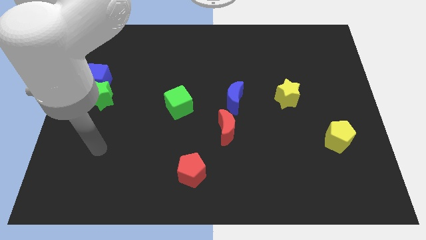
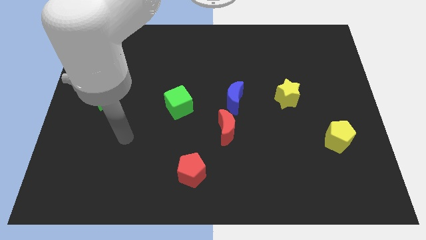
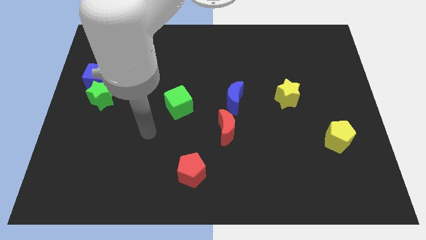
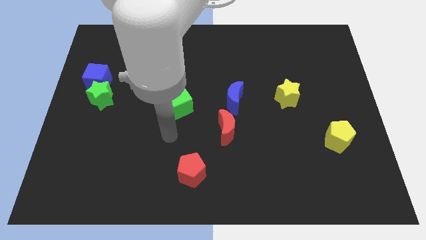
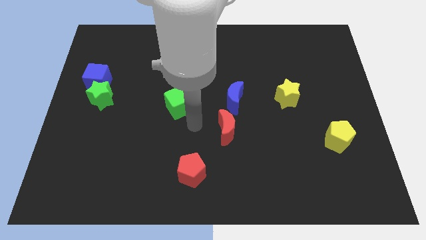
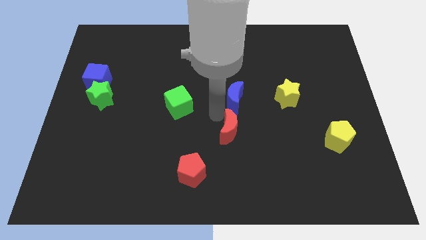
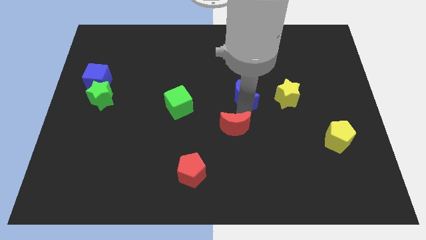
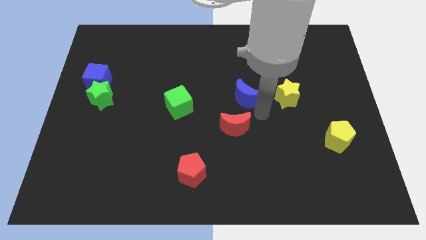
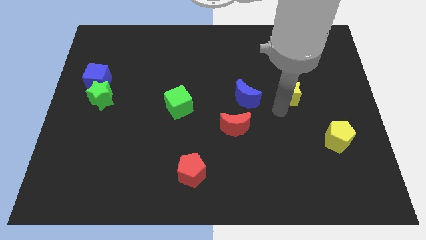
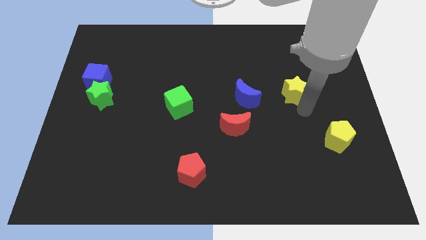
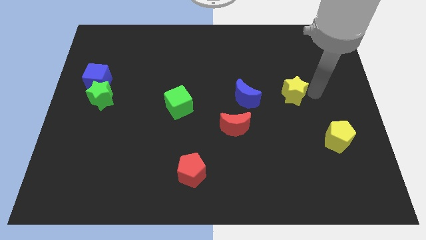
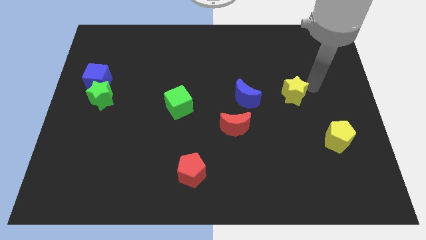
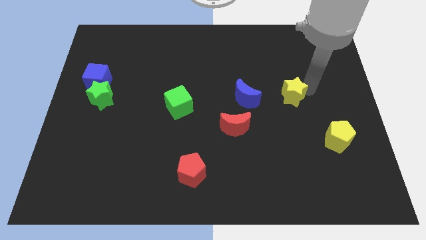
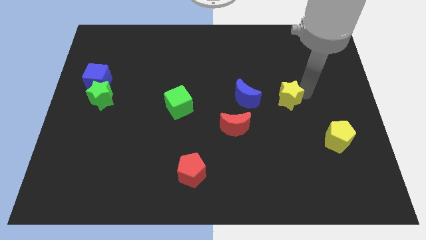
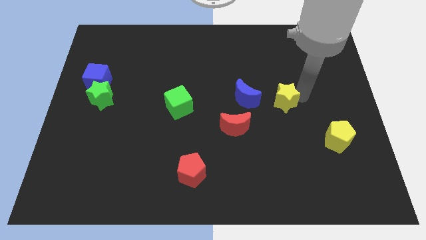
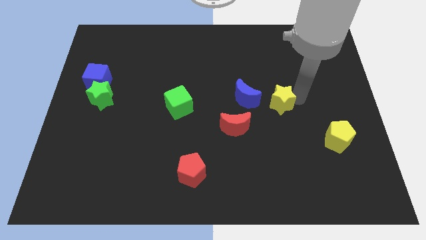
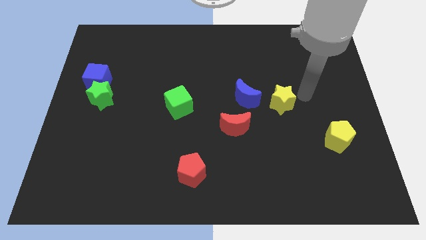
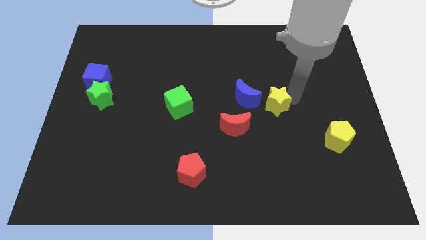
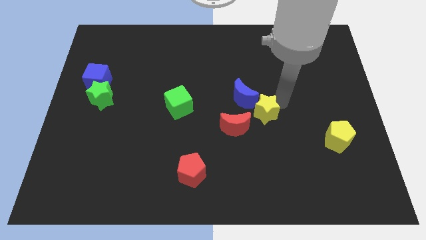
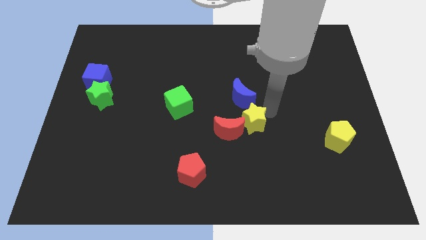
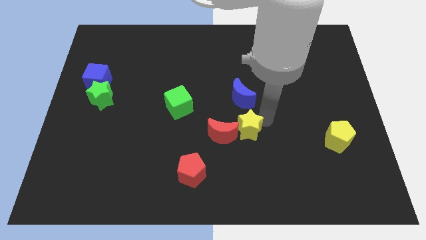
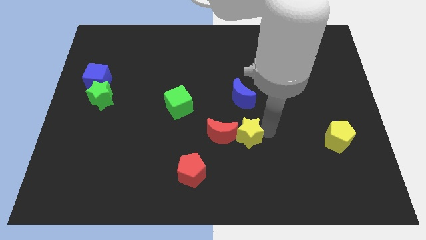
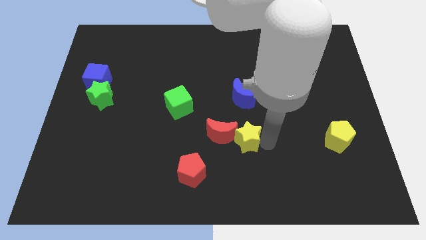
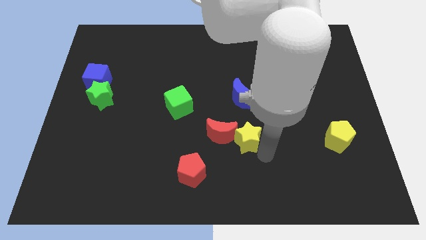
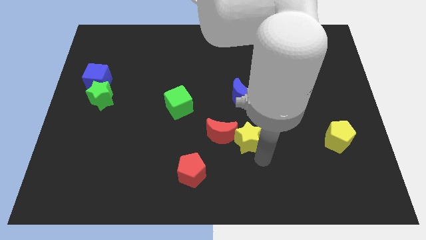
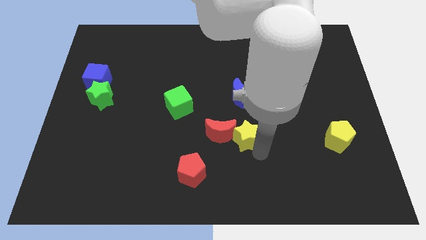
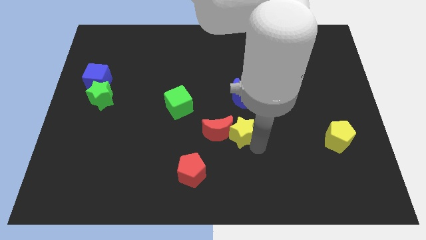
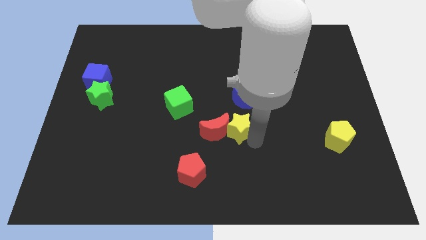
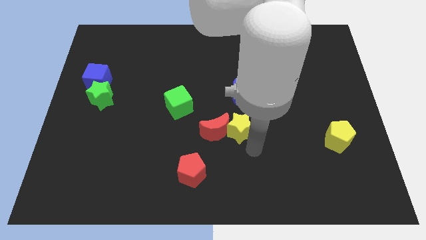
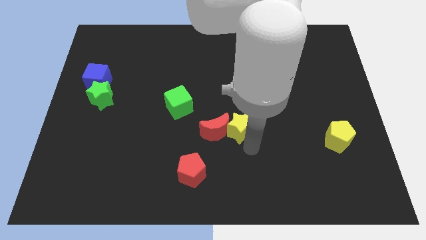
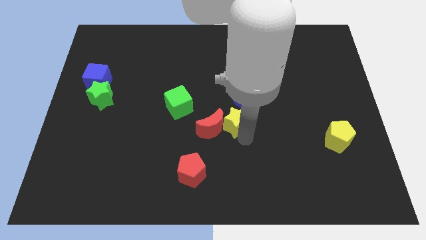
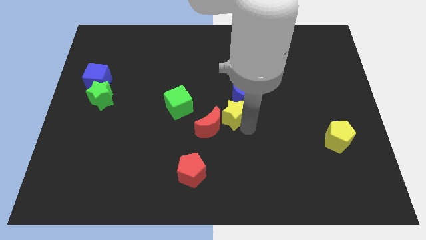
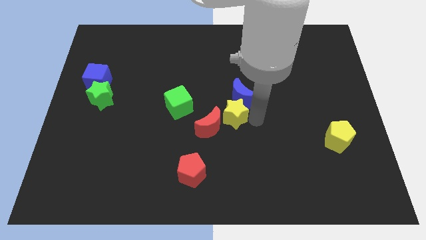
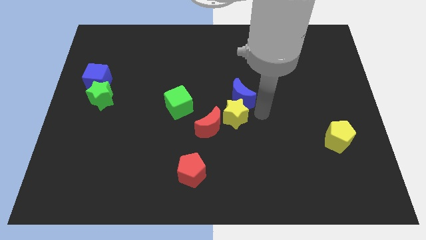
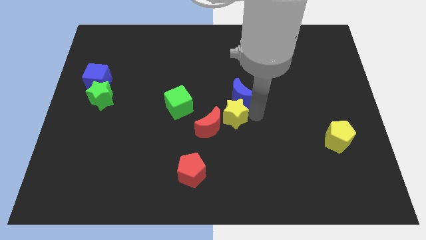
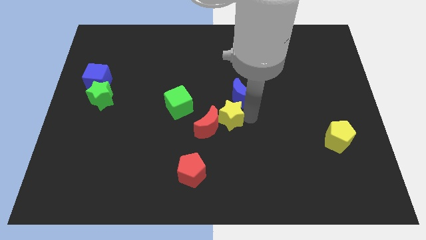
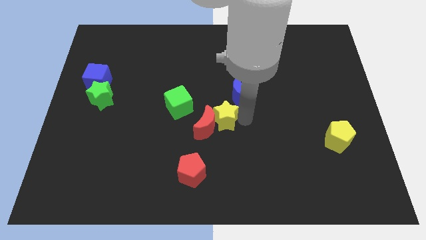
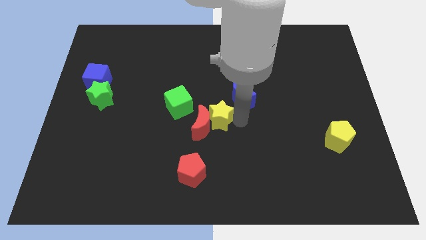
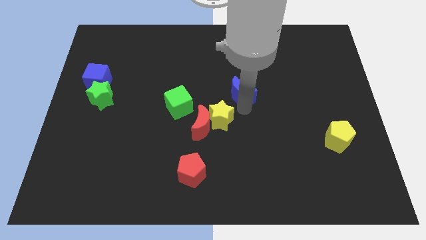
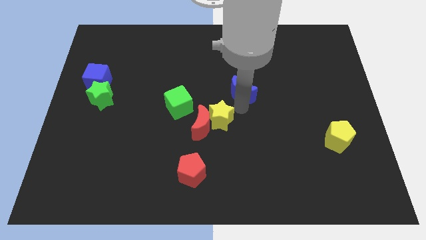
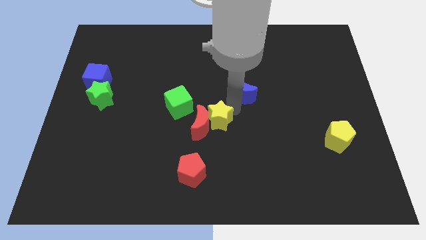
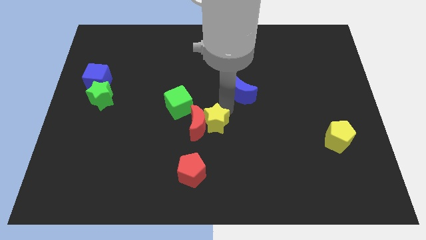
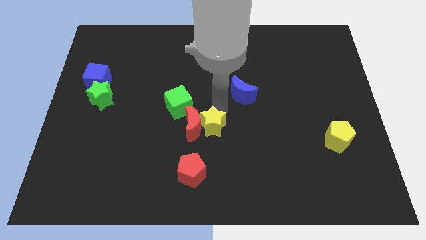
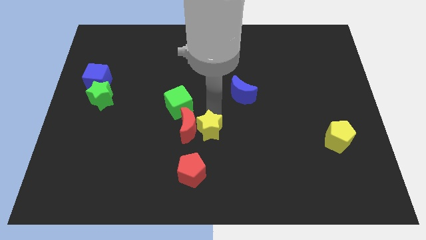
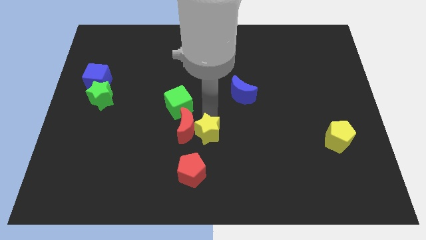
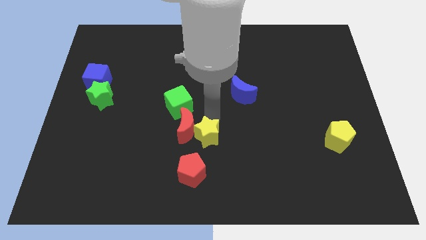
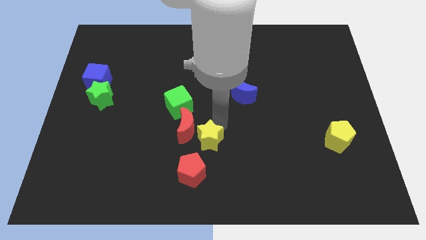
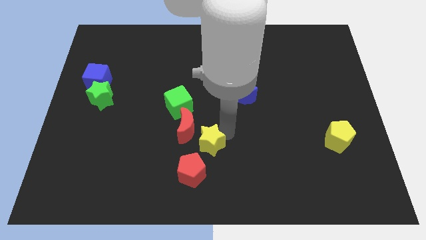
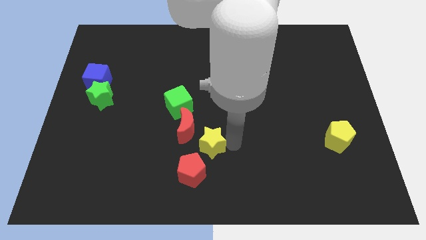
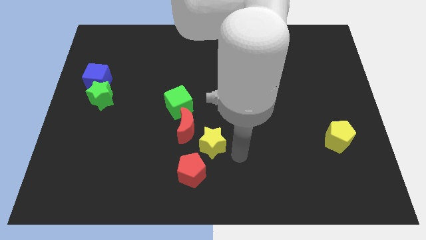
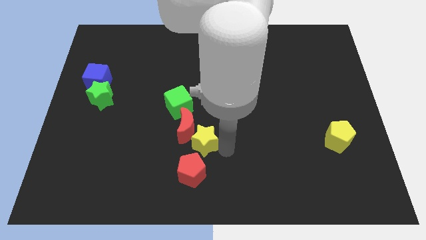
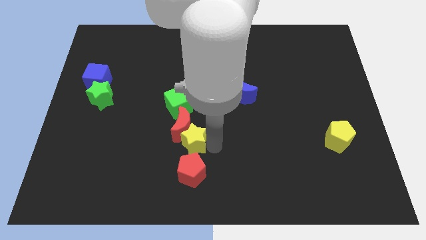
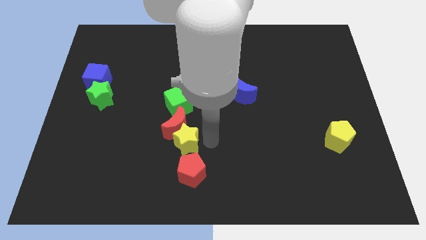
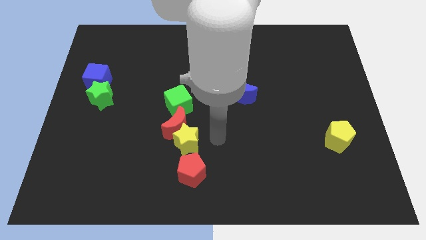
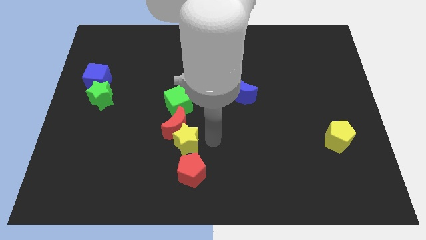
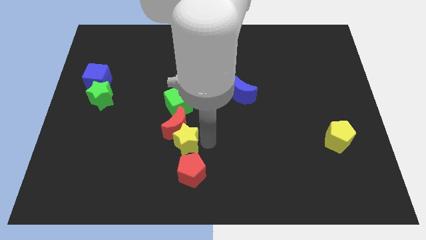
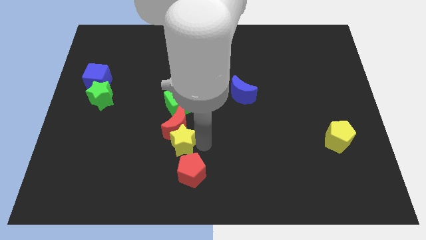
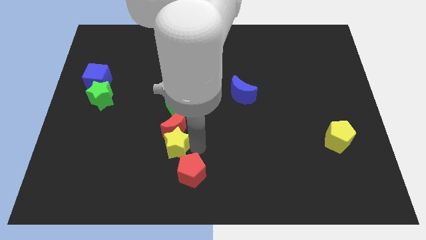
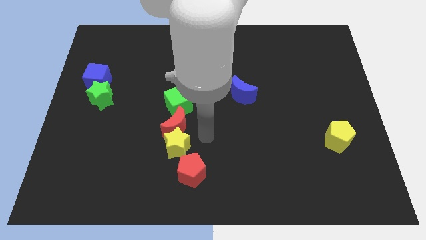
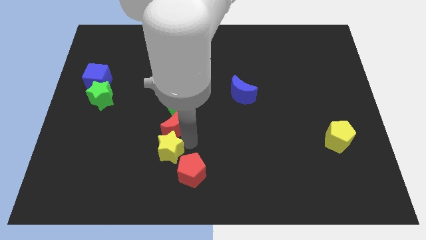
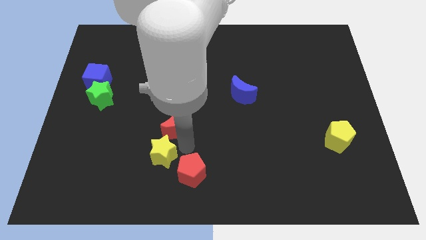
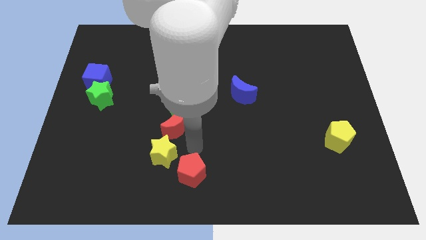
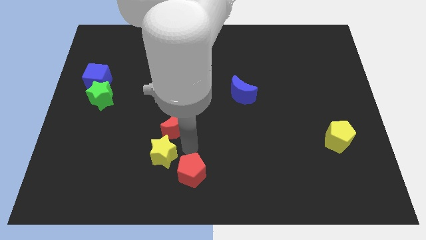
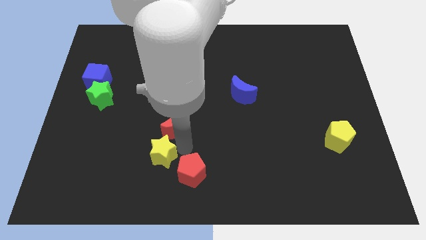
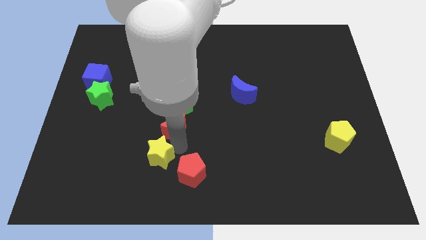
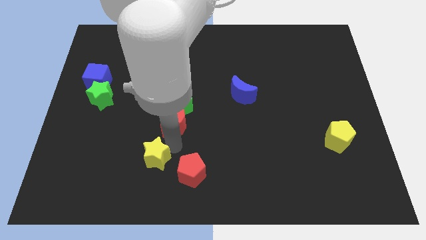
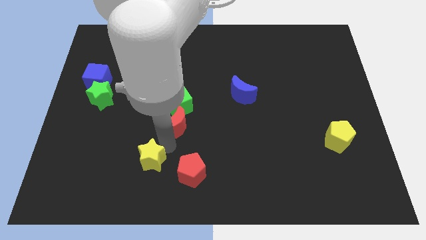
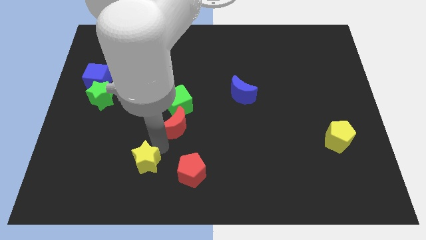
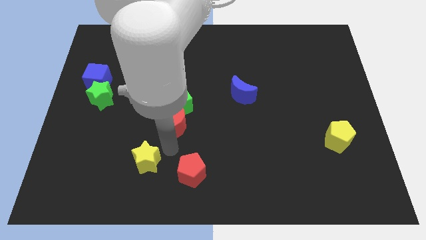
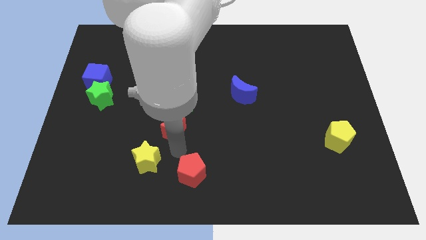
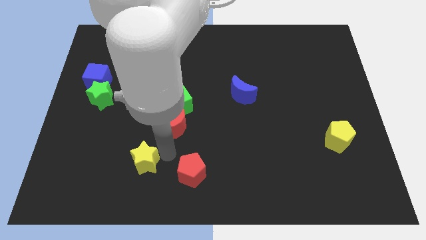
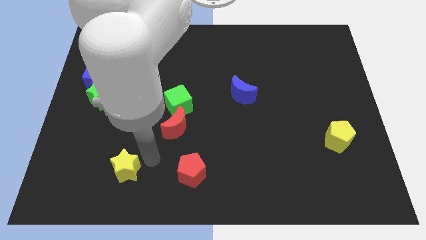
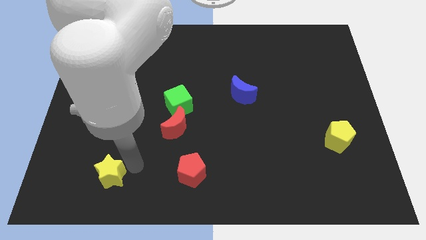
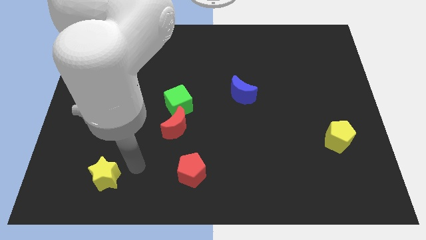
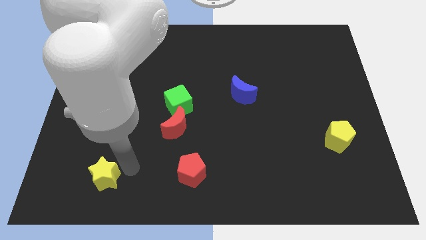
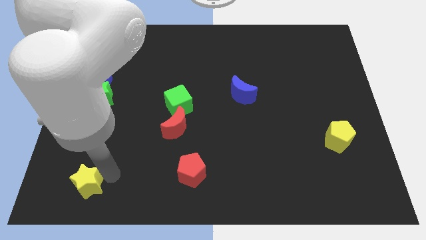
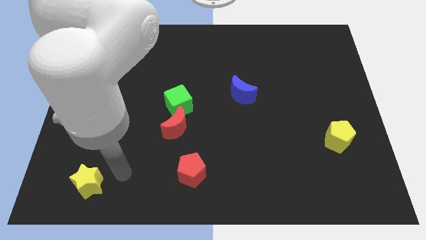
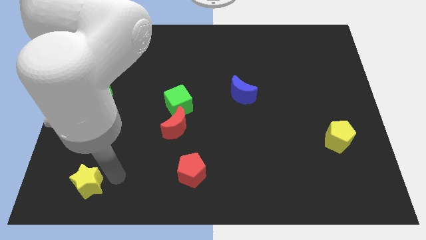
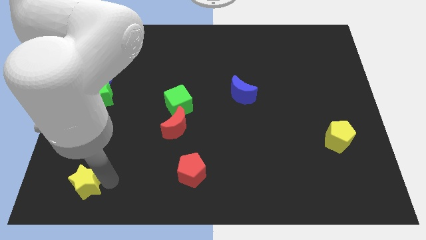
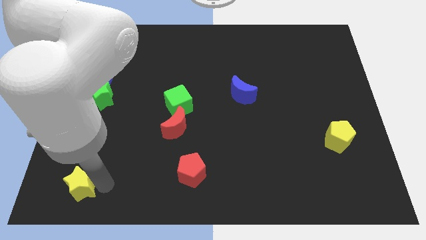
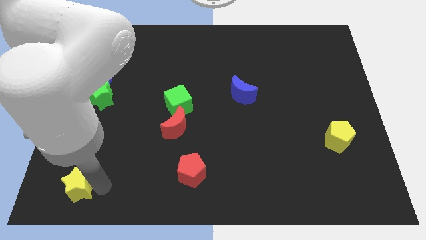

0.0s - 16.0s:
put the yellow star to the lower left corner
